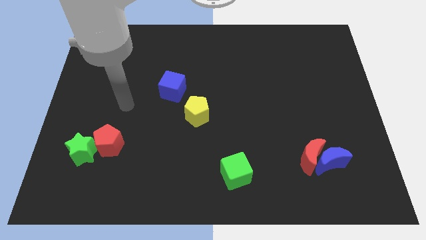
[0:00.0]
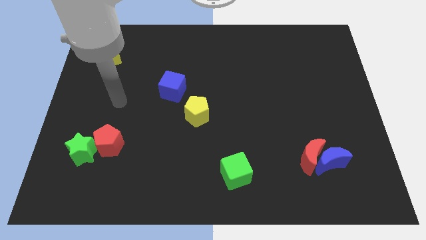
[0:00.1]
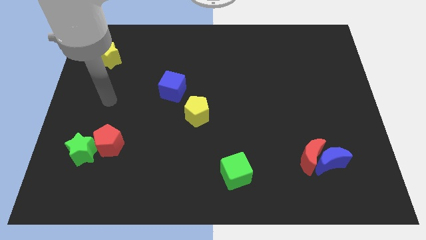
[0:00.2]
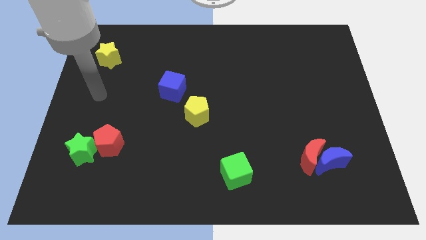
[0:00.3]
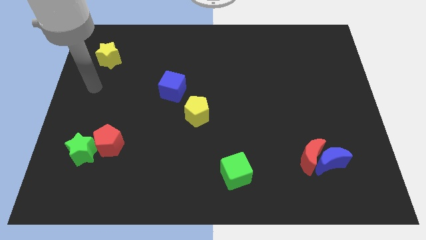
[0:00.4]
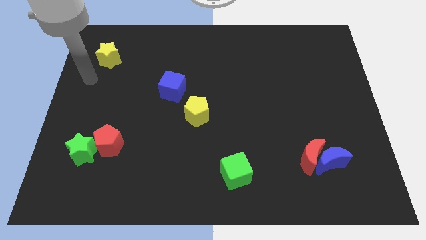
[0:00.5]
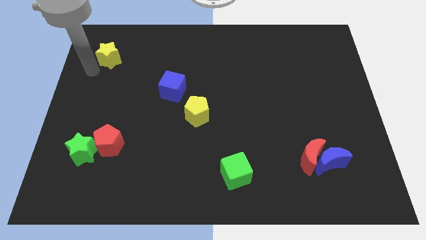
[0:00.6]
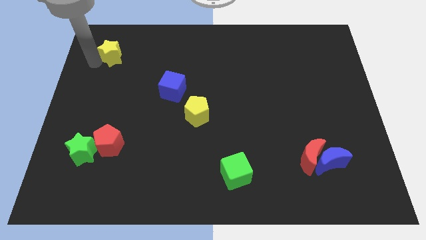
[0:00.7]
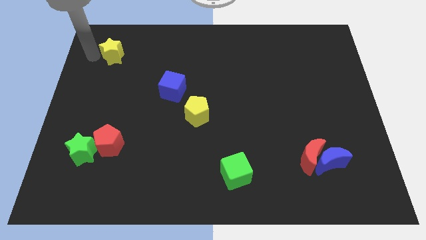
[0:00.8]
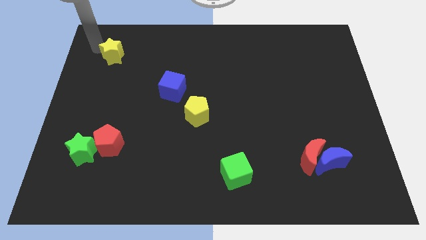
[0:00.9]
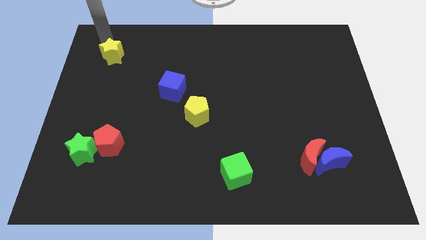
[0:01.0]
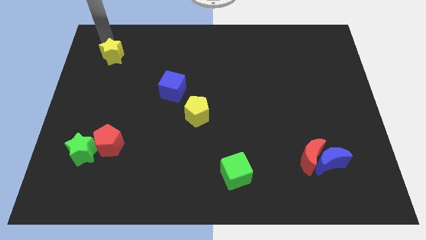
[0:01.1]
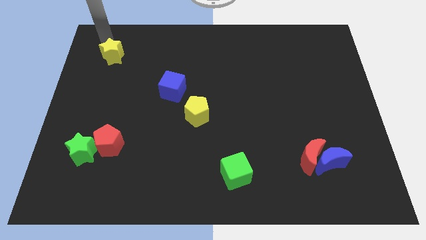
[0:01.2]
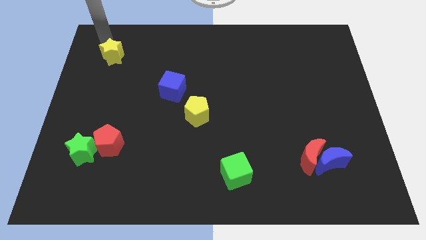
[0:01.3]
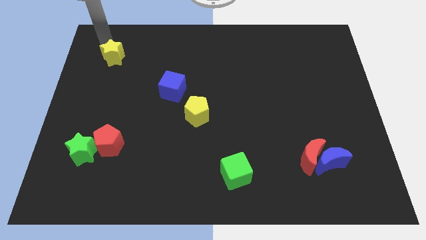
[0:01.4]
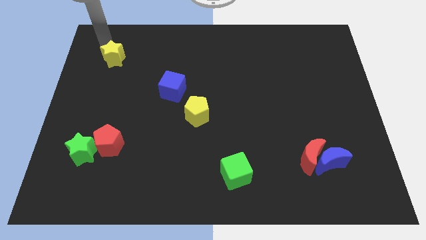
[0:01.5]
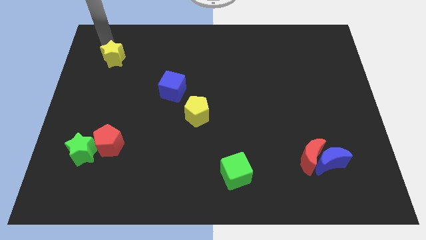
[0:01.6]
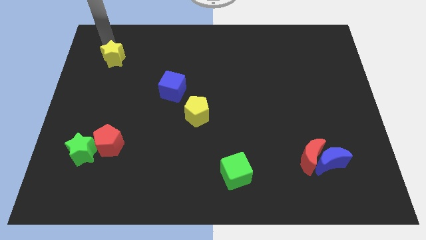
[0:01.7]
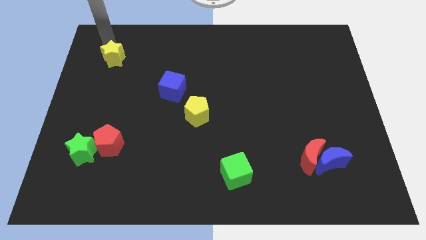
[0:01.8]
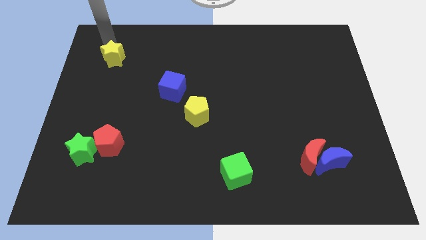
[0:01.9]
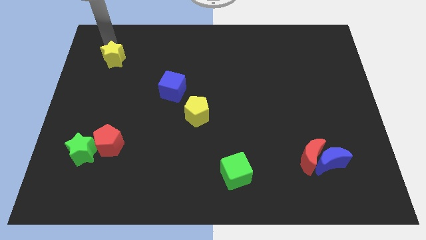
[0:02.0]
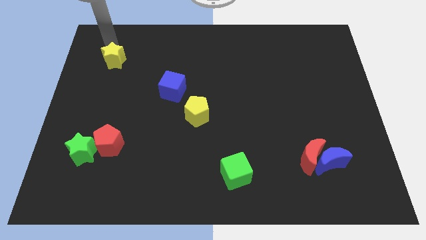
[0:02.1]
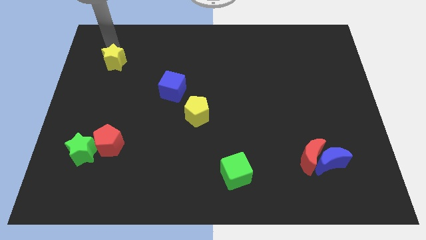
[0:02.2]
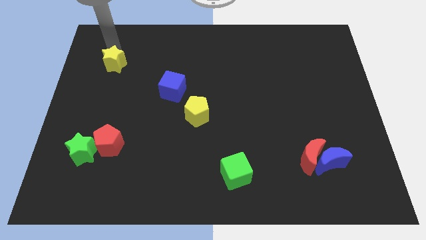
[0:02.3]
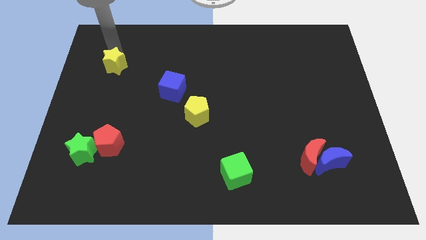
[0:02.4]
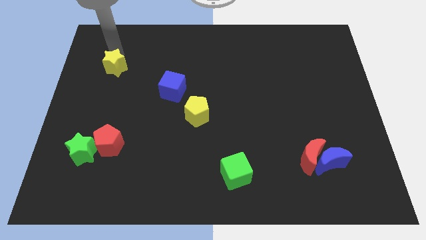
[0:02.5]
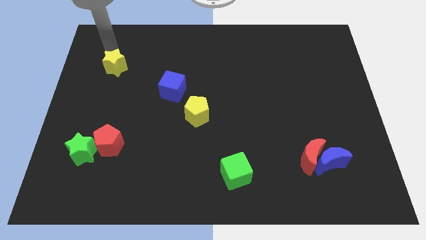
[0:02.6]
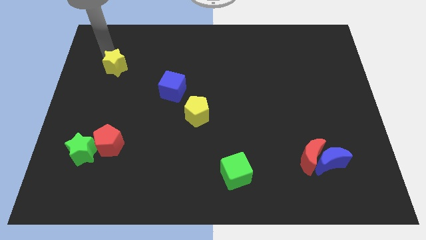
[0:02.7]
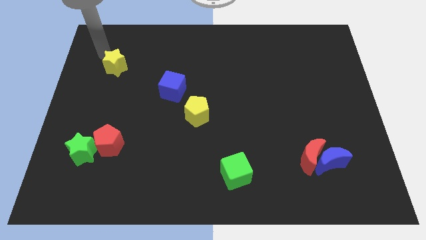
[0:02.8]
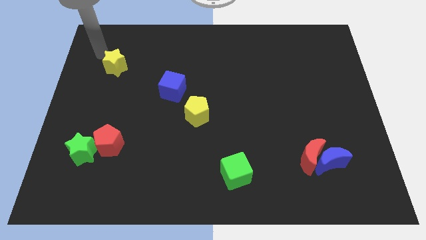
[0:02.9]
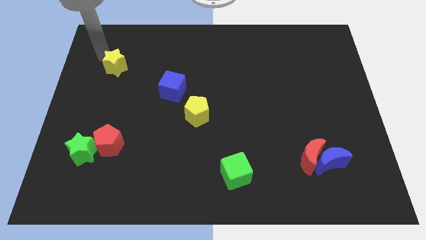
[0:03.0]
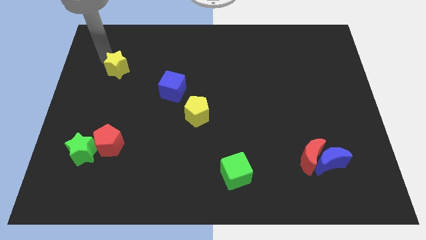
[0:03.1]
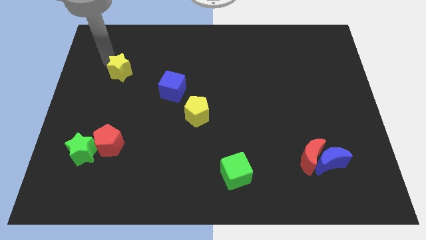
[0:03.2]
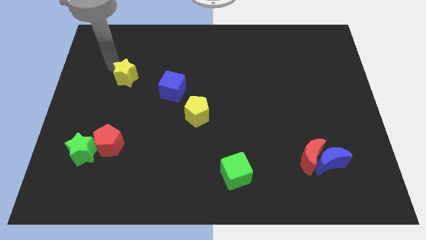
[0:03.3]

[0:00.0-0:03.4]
slightly slide the yellow star diagonally down and to the right

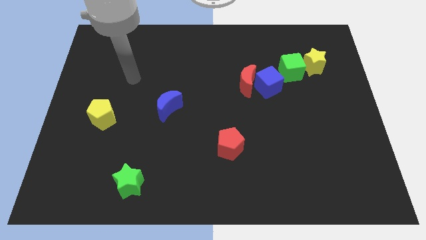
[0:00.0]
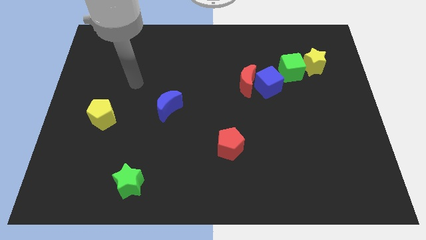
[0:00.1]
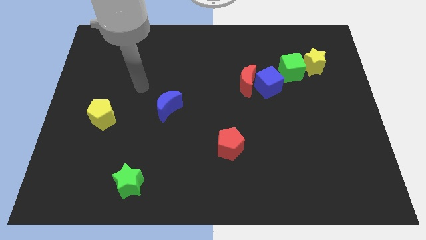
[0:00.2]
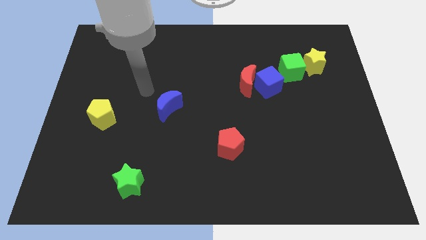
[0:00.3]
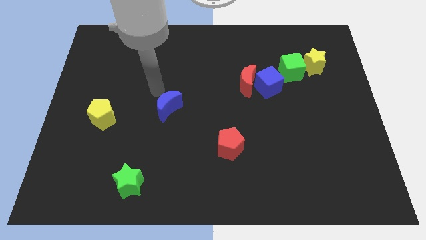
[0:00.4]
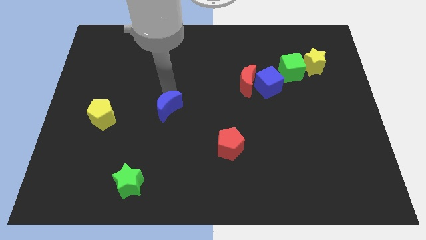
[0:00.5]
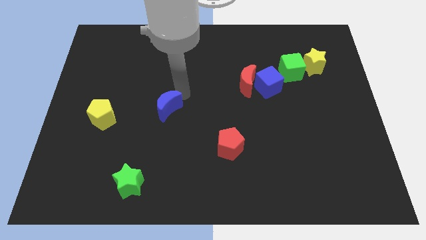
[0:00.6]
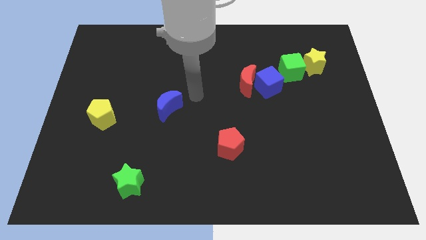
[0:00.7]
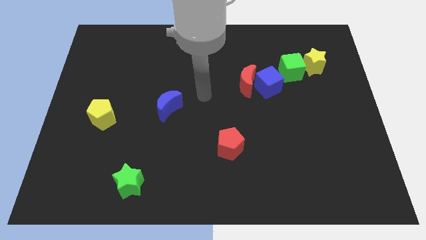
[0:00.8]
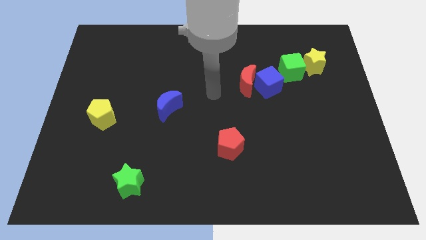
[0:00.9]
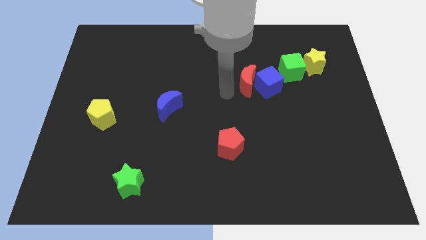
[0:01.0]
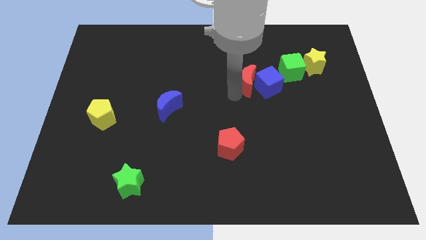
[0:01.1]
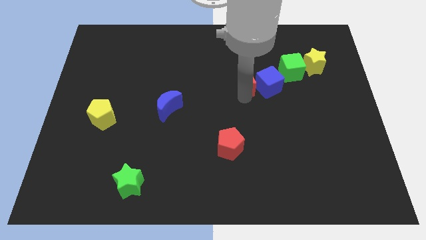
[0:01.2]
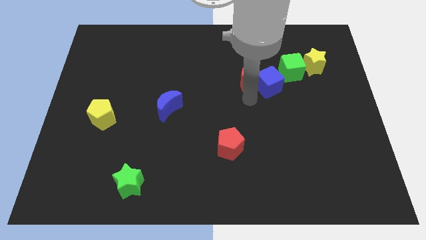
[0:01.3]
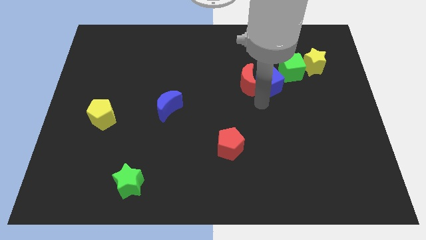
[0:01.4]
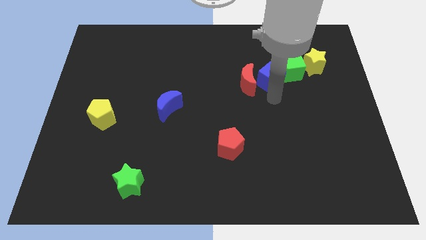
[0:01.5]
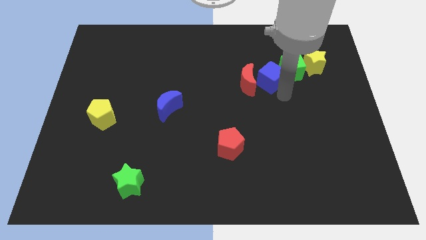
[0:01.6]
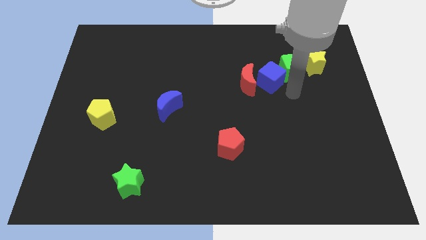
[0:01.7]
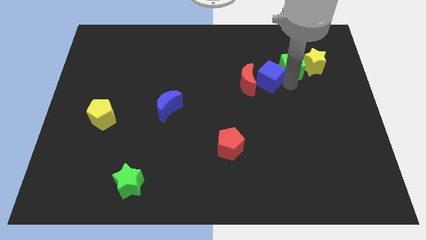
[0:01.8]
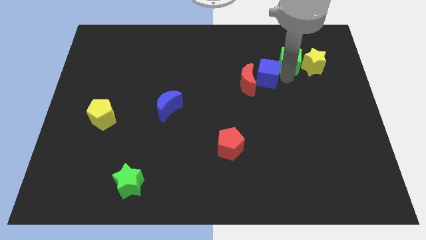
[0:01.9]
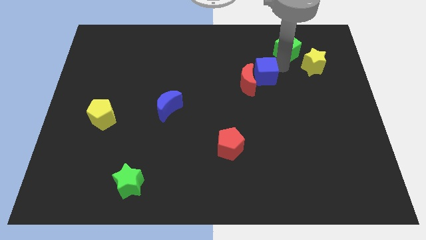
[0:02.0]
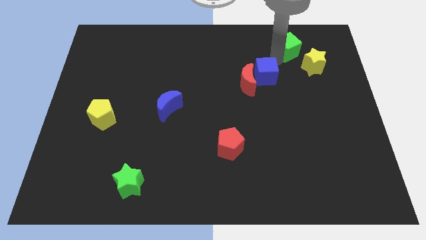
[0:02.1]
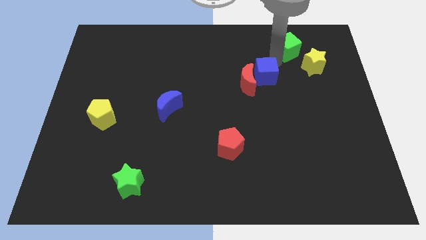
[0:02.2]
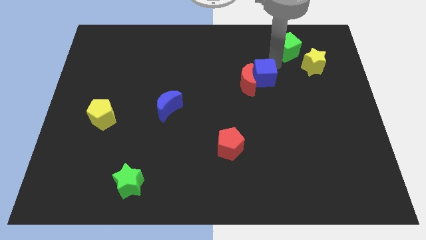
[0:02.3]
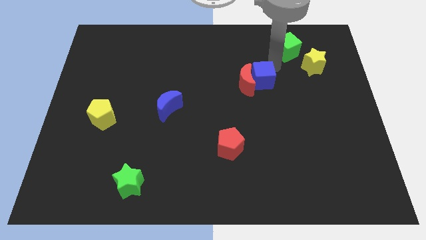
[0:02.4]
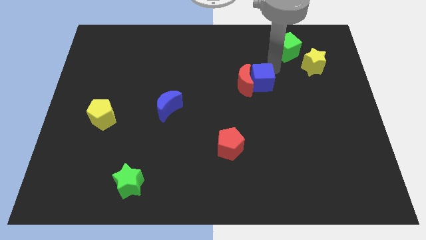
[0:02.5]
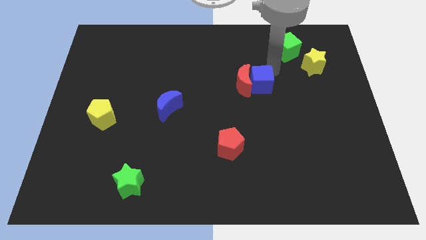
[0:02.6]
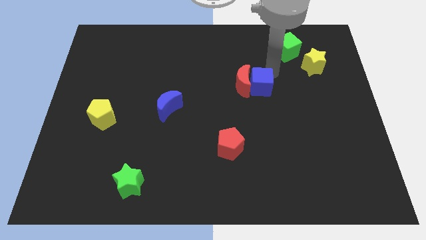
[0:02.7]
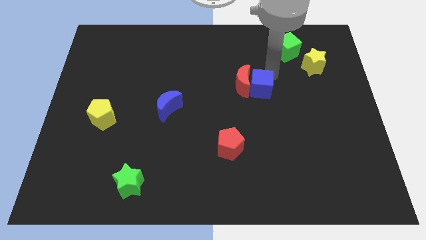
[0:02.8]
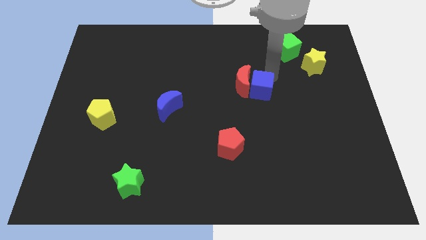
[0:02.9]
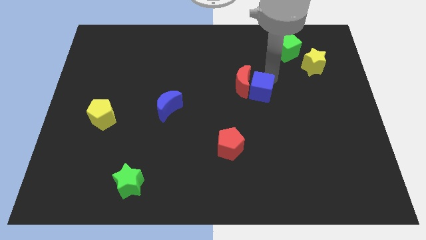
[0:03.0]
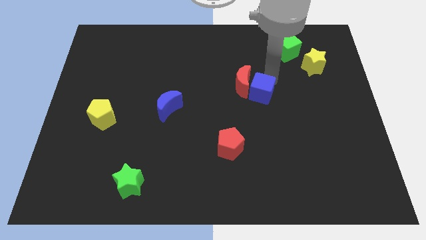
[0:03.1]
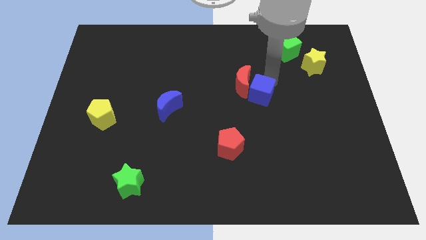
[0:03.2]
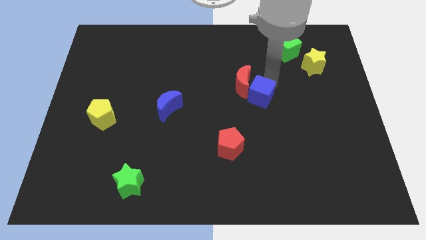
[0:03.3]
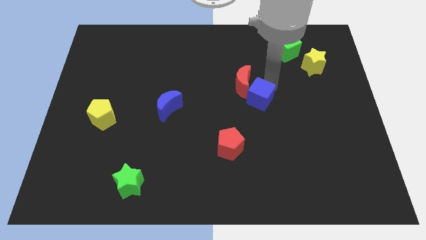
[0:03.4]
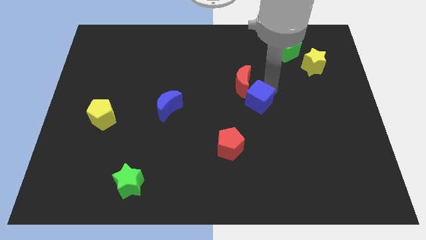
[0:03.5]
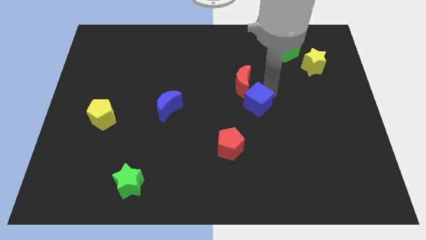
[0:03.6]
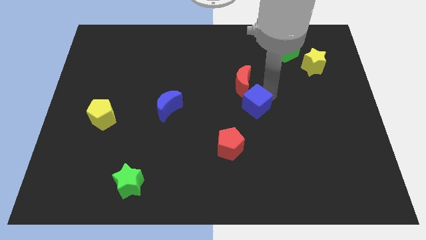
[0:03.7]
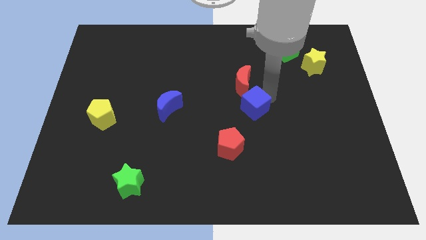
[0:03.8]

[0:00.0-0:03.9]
push the blue cube somewhat downwards and then left

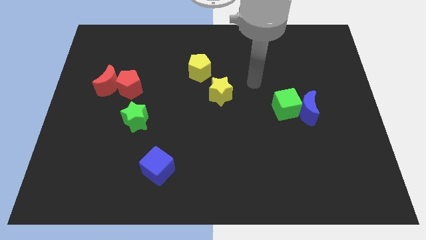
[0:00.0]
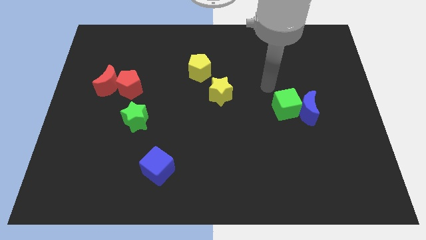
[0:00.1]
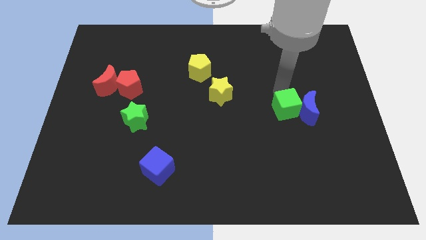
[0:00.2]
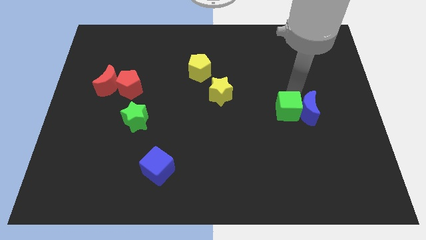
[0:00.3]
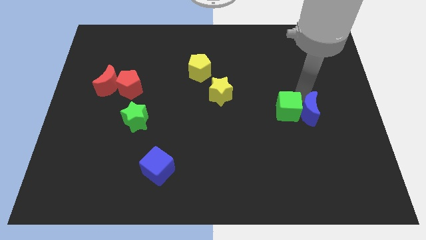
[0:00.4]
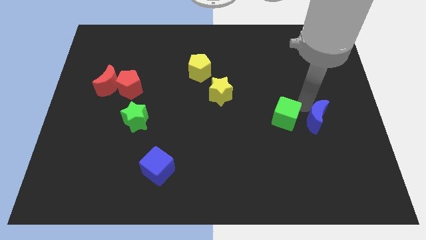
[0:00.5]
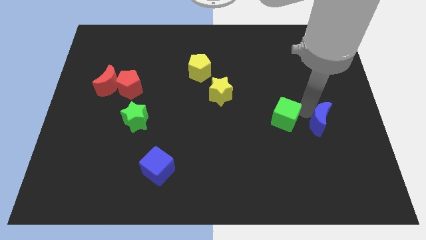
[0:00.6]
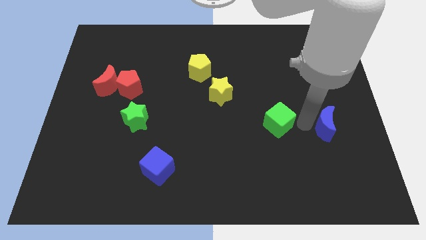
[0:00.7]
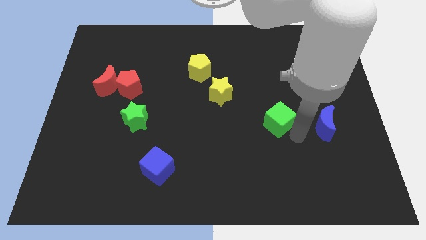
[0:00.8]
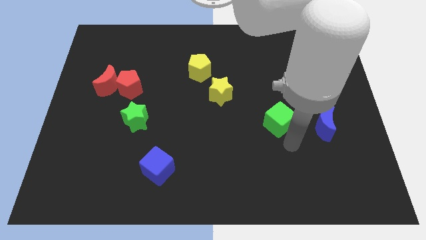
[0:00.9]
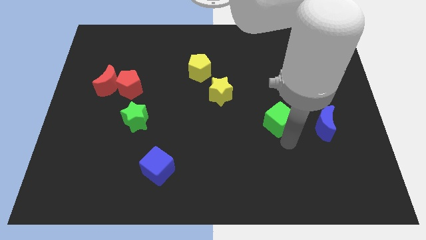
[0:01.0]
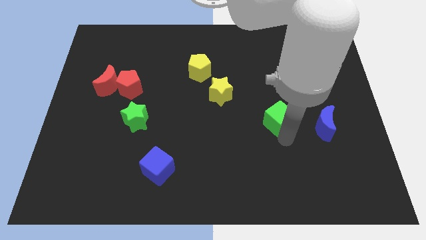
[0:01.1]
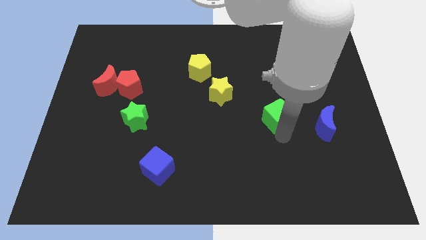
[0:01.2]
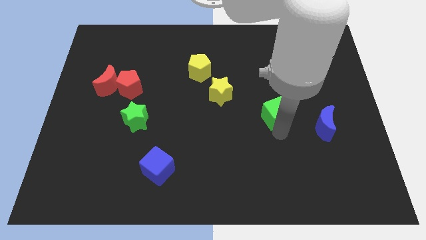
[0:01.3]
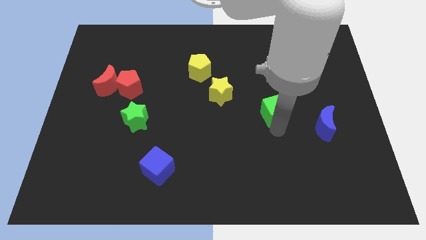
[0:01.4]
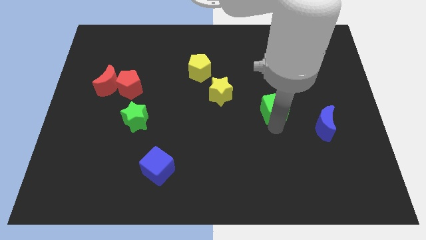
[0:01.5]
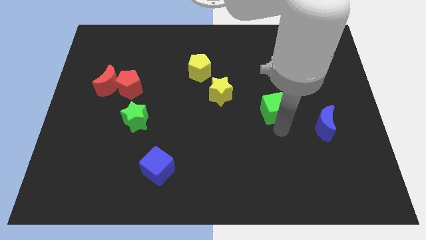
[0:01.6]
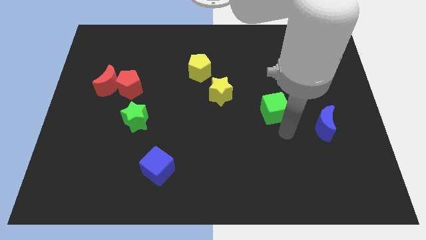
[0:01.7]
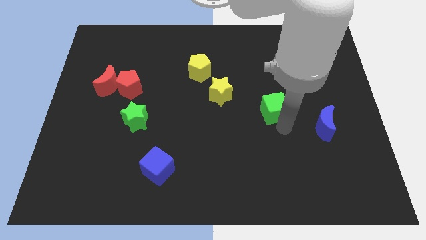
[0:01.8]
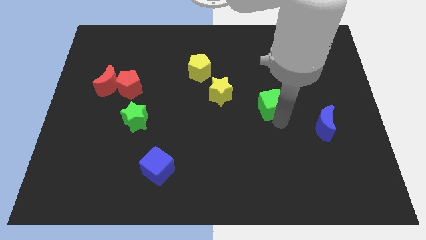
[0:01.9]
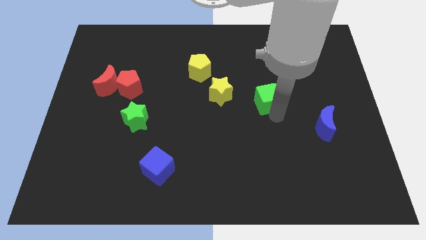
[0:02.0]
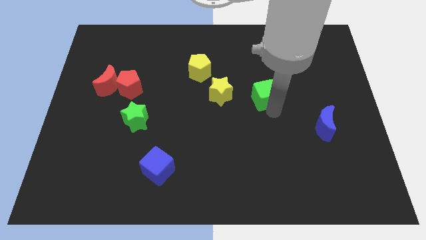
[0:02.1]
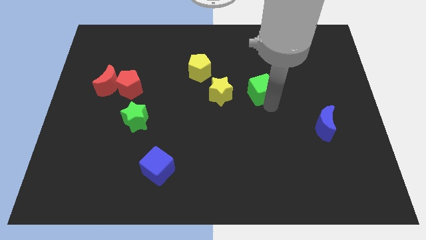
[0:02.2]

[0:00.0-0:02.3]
push the green cube a bit diagonally up and left
